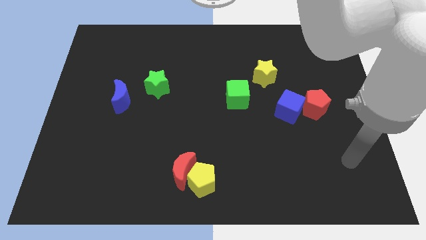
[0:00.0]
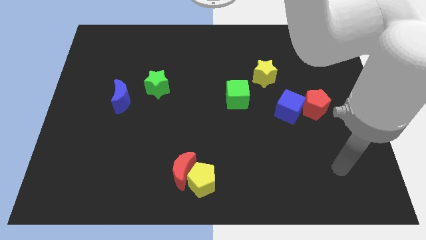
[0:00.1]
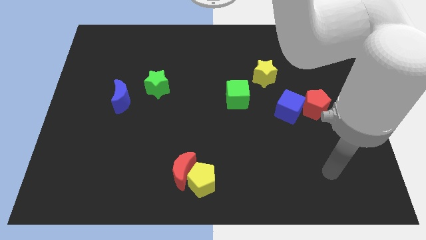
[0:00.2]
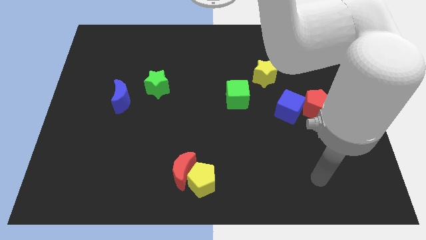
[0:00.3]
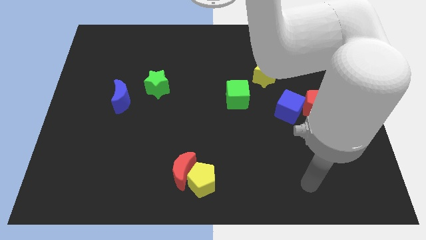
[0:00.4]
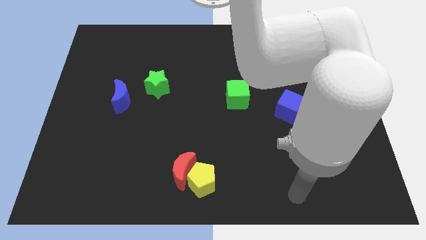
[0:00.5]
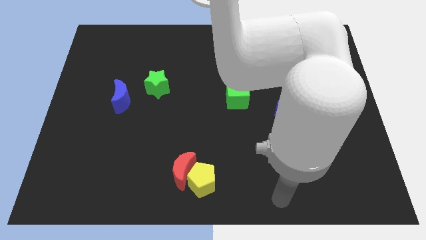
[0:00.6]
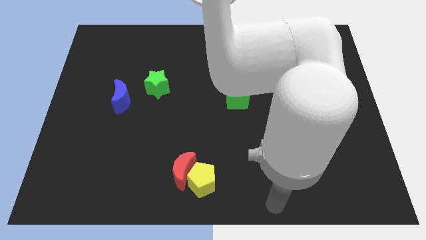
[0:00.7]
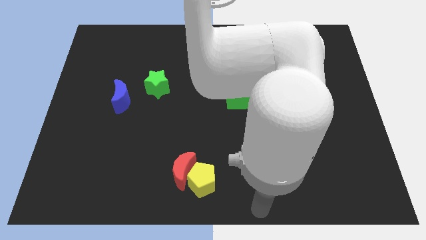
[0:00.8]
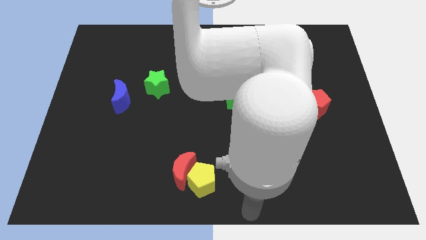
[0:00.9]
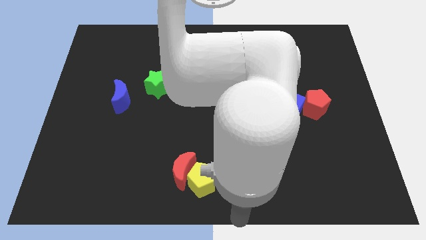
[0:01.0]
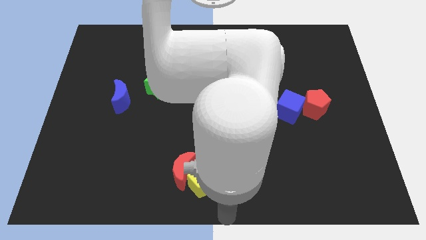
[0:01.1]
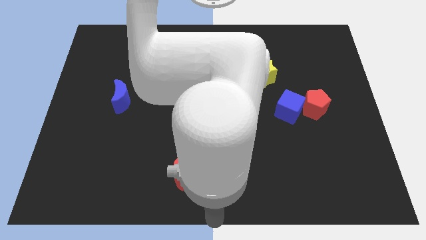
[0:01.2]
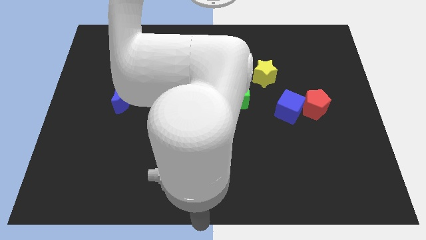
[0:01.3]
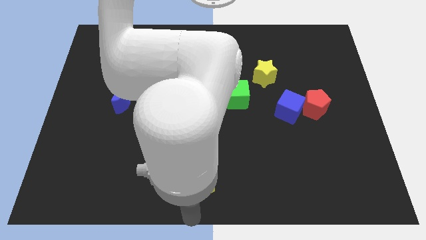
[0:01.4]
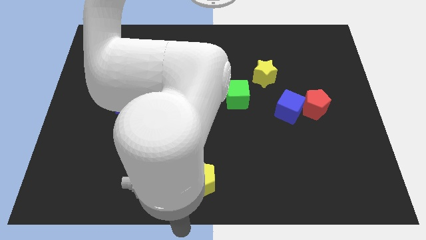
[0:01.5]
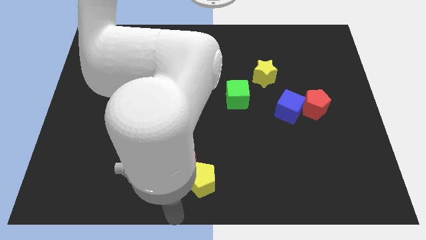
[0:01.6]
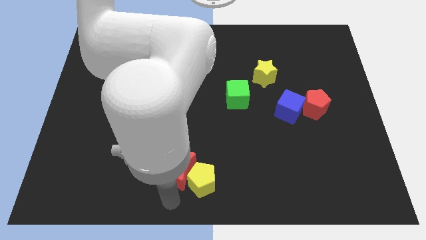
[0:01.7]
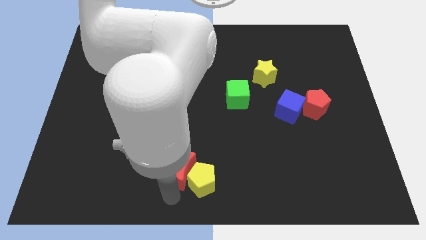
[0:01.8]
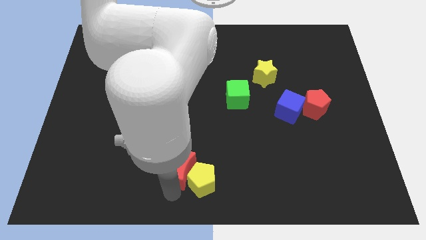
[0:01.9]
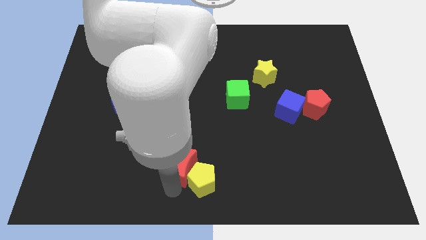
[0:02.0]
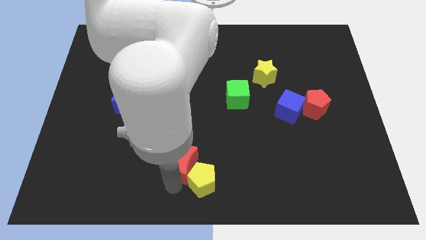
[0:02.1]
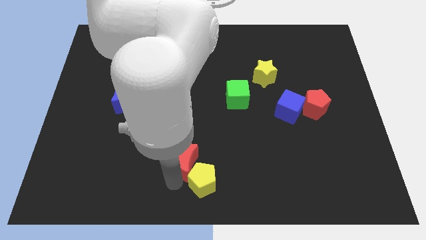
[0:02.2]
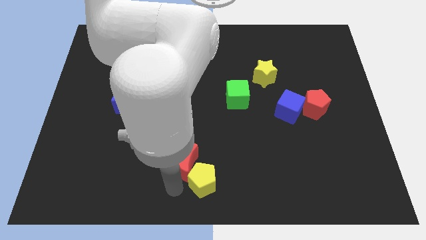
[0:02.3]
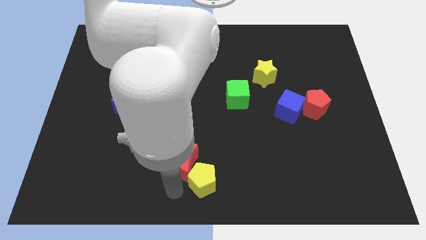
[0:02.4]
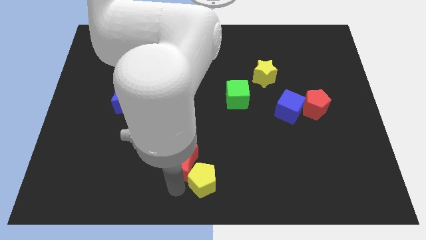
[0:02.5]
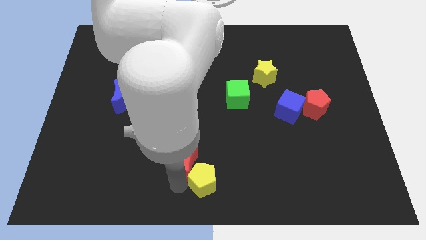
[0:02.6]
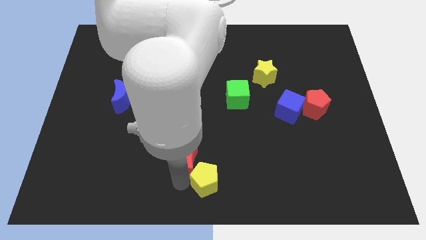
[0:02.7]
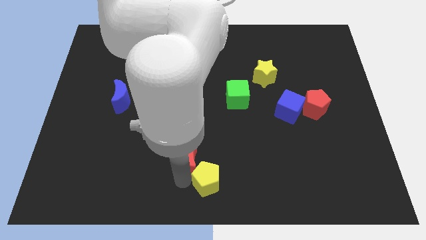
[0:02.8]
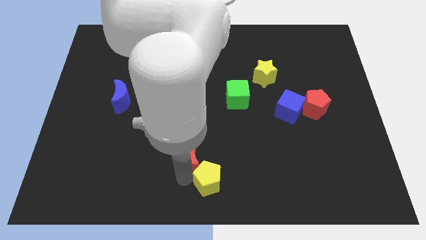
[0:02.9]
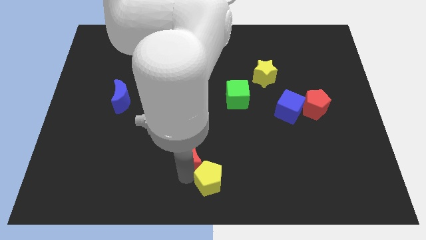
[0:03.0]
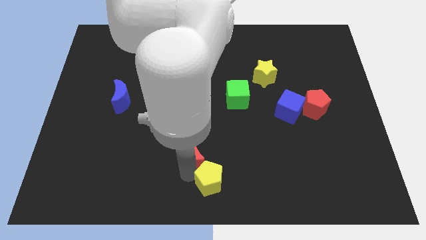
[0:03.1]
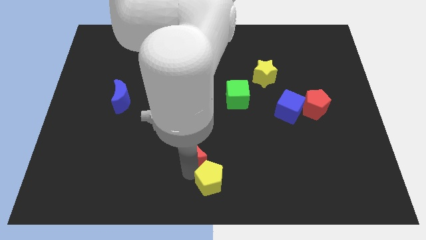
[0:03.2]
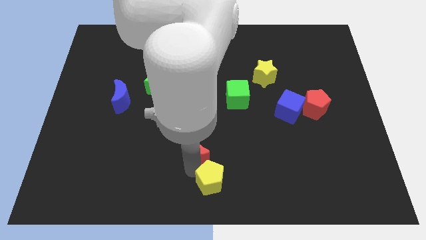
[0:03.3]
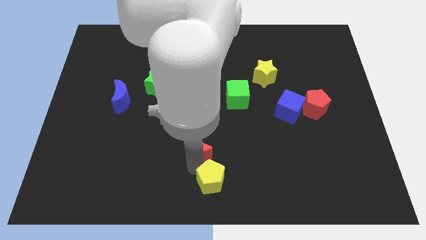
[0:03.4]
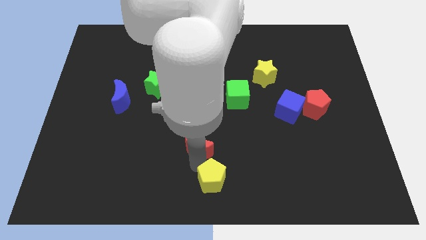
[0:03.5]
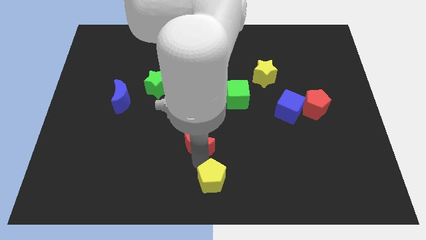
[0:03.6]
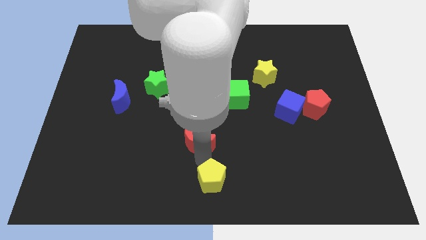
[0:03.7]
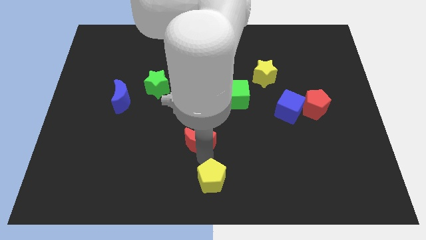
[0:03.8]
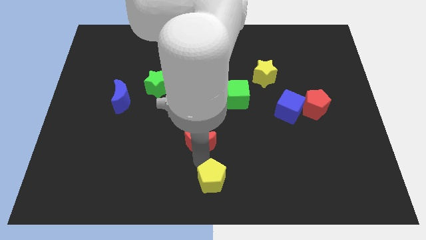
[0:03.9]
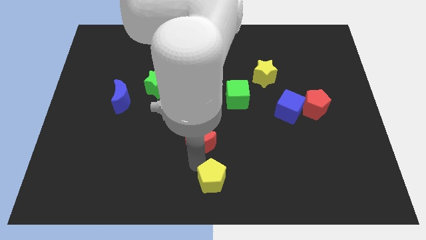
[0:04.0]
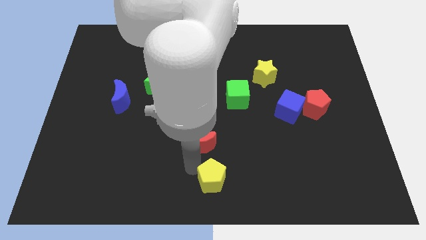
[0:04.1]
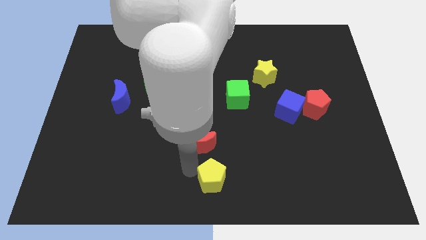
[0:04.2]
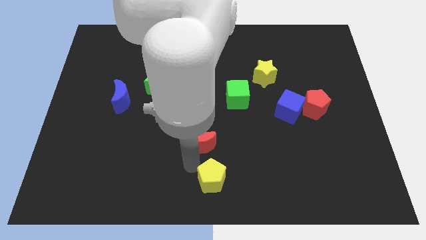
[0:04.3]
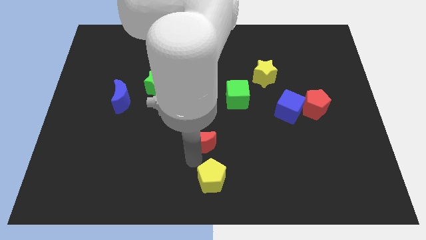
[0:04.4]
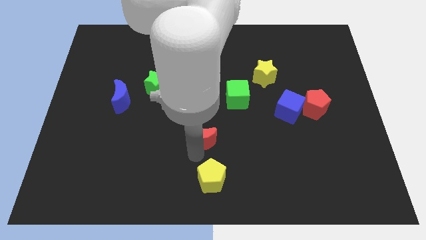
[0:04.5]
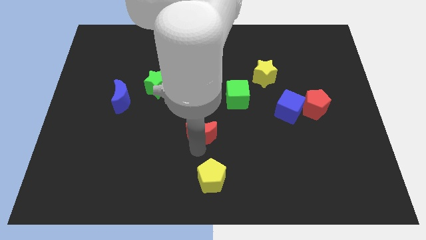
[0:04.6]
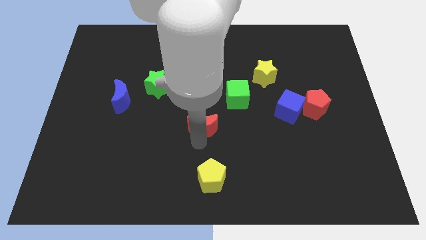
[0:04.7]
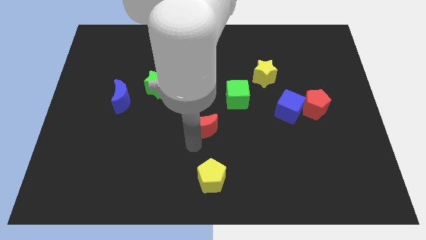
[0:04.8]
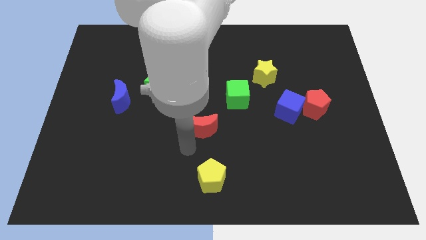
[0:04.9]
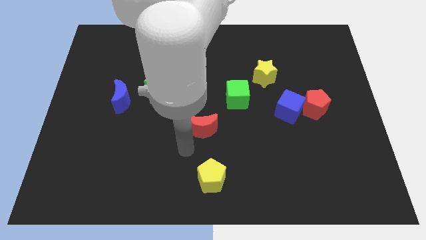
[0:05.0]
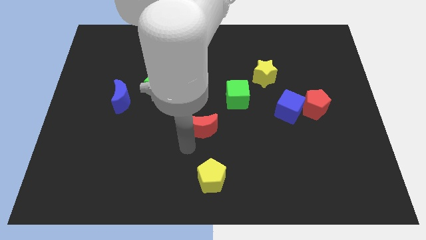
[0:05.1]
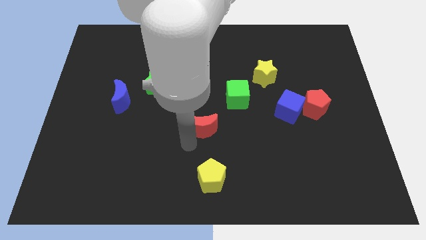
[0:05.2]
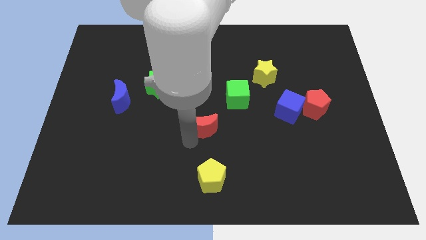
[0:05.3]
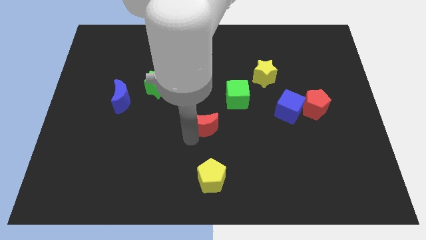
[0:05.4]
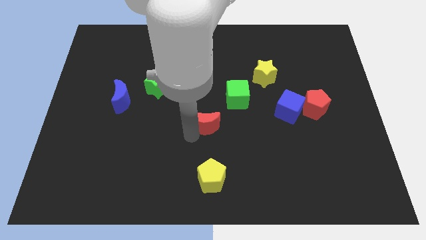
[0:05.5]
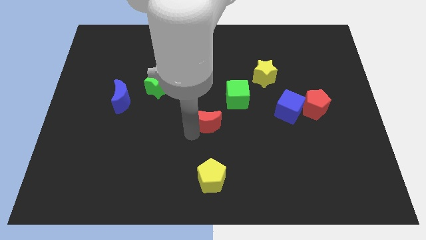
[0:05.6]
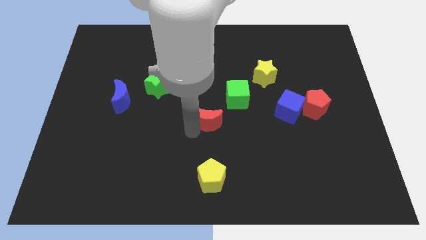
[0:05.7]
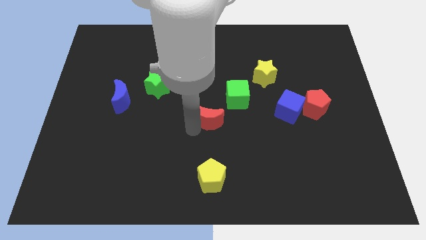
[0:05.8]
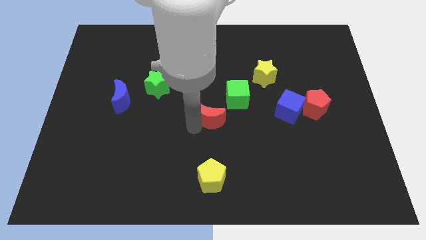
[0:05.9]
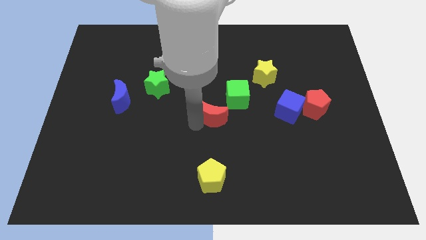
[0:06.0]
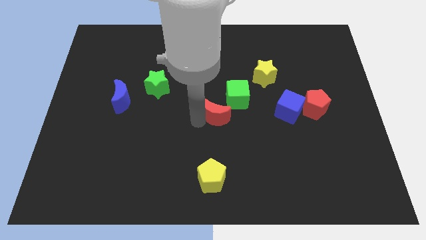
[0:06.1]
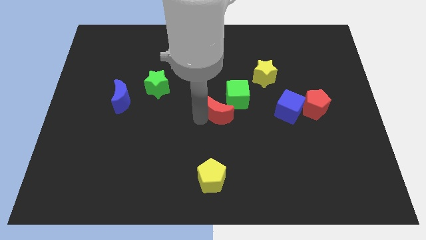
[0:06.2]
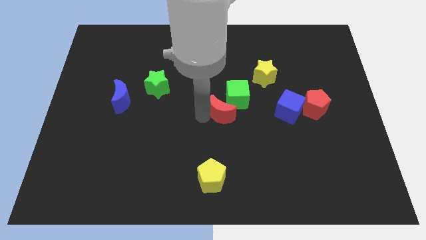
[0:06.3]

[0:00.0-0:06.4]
push the red moon close to the green cube

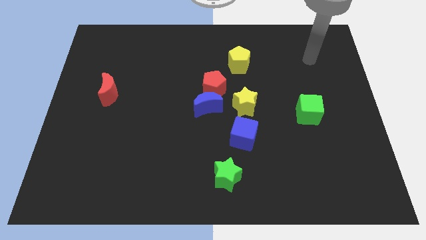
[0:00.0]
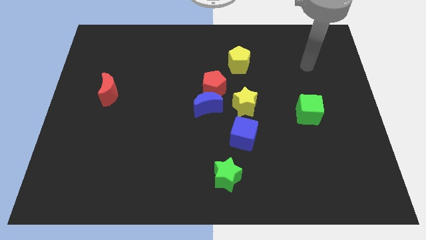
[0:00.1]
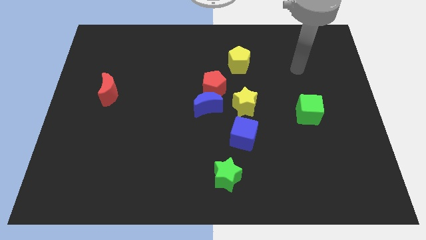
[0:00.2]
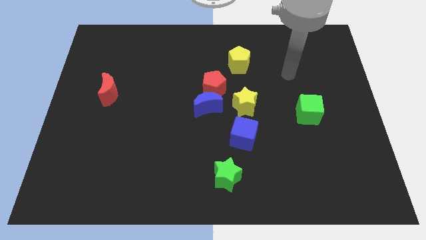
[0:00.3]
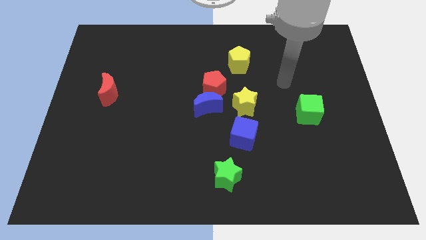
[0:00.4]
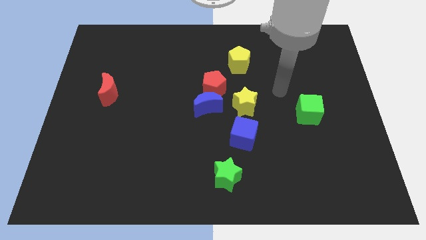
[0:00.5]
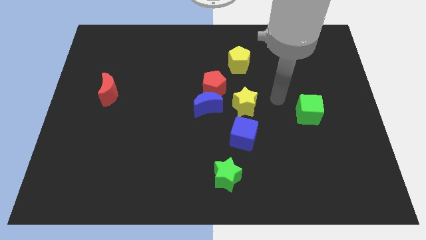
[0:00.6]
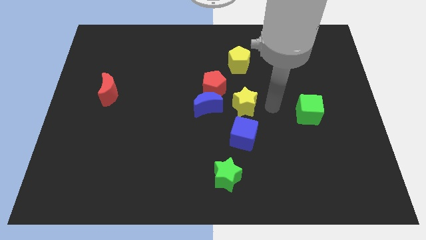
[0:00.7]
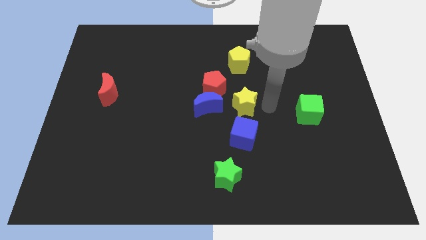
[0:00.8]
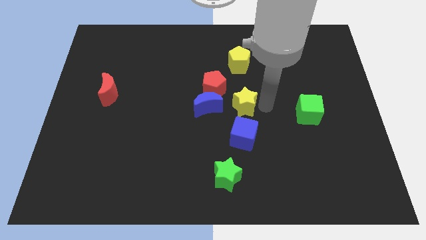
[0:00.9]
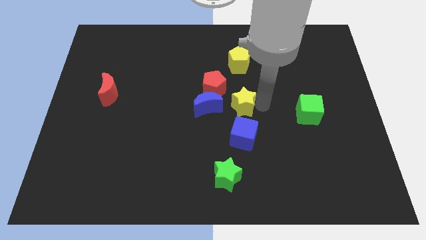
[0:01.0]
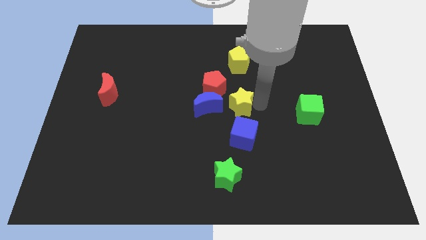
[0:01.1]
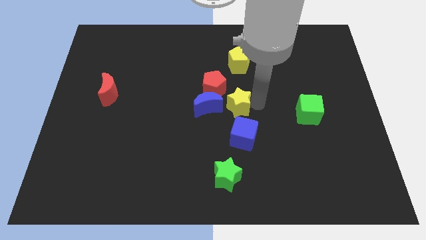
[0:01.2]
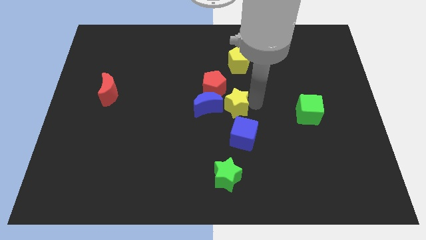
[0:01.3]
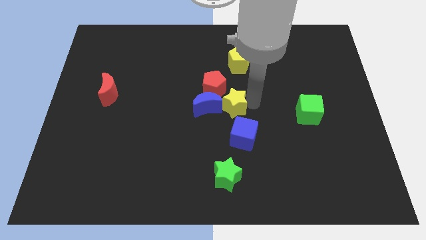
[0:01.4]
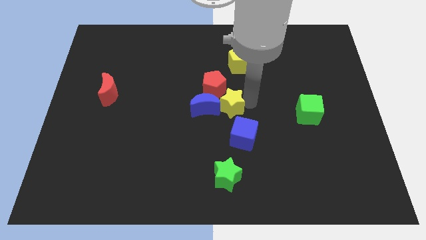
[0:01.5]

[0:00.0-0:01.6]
slide the yellow star towards the blue moon
